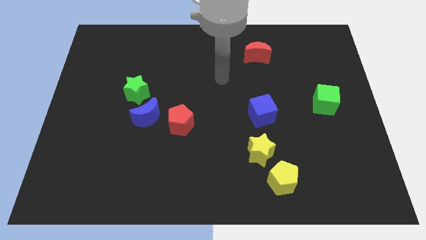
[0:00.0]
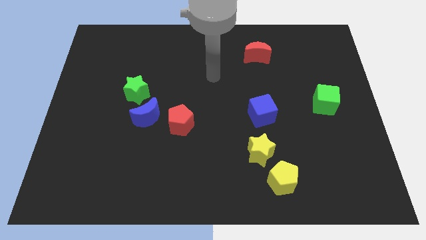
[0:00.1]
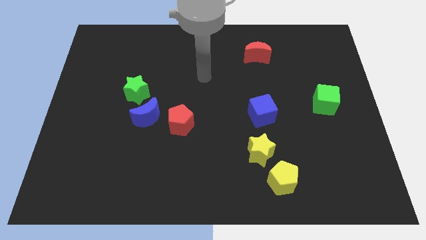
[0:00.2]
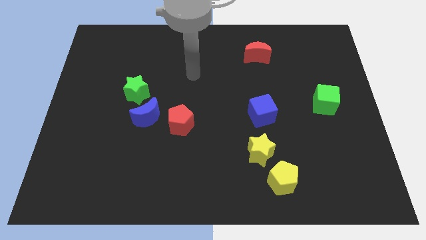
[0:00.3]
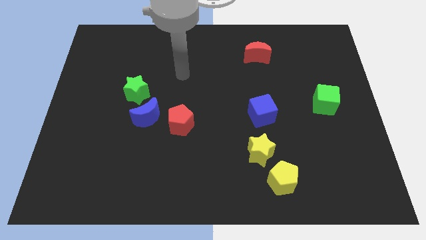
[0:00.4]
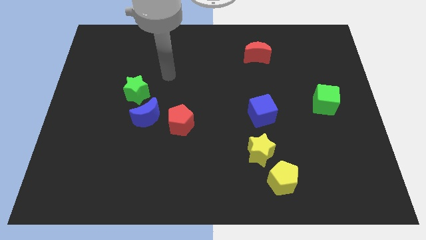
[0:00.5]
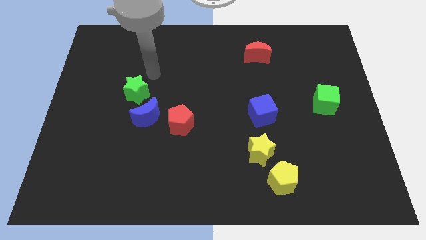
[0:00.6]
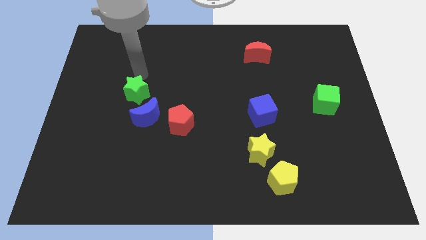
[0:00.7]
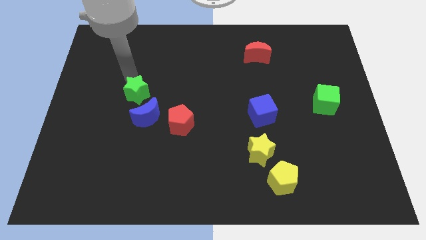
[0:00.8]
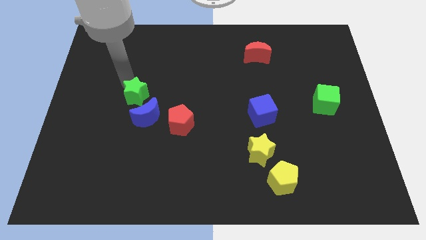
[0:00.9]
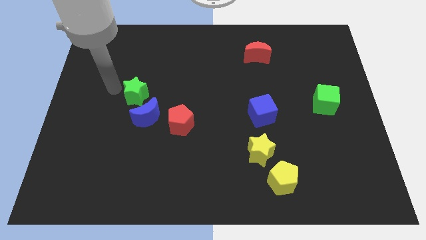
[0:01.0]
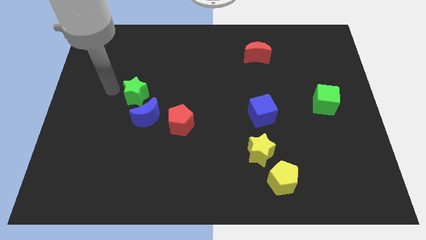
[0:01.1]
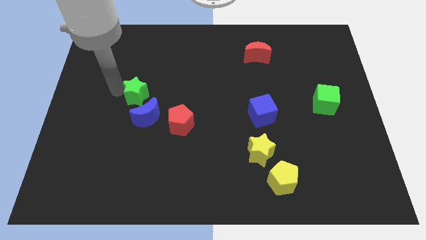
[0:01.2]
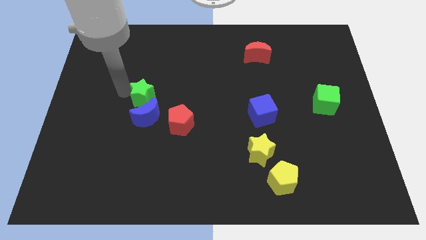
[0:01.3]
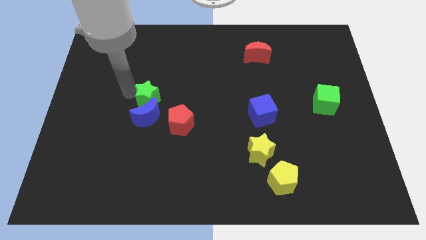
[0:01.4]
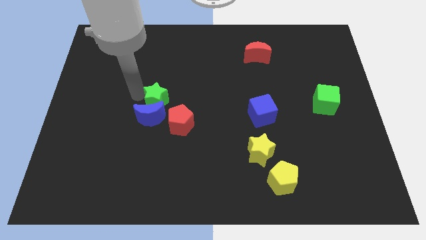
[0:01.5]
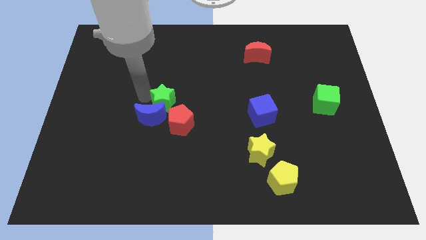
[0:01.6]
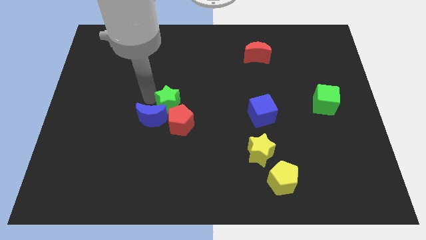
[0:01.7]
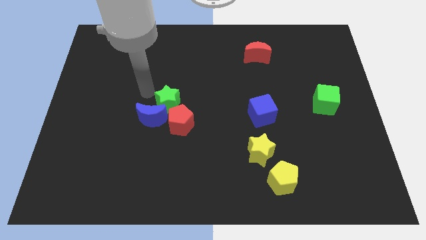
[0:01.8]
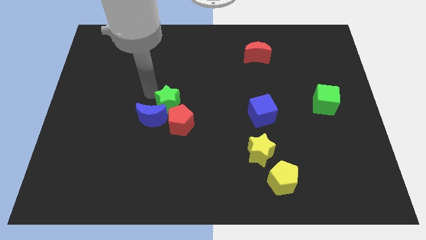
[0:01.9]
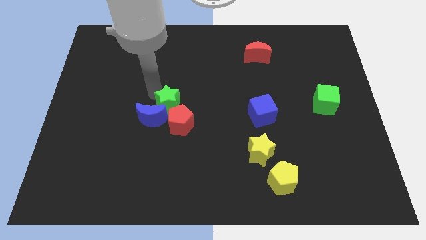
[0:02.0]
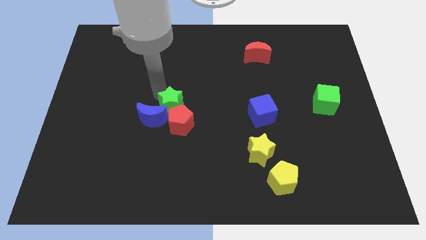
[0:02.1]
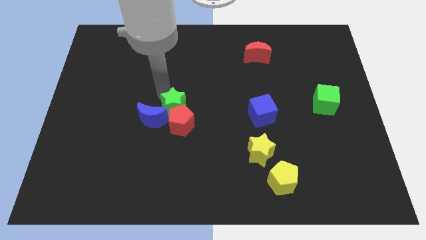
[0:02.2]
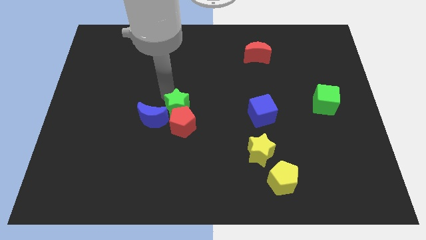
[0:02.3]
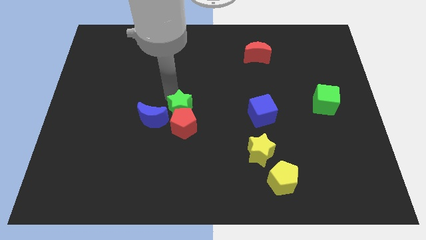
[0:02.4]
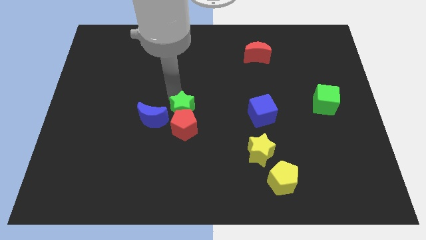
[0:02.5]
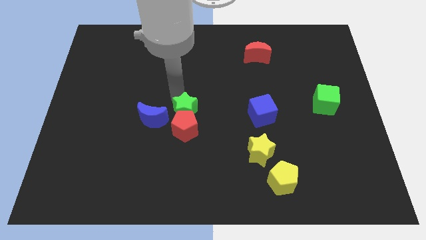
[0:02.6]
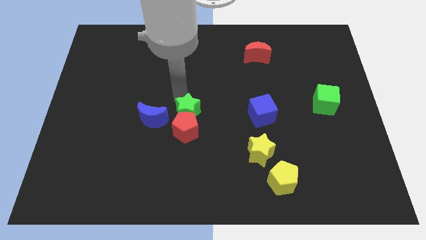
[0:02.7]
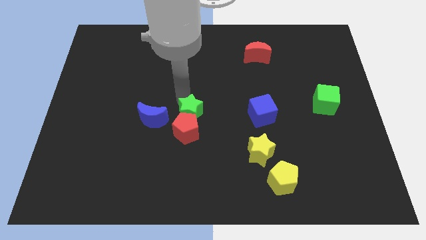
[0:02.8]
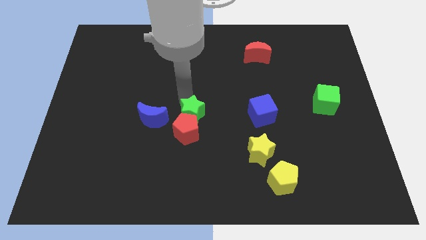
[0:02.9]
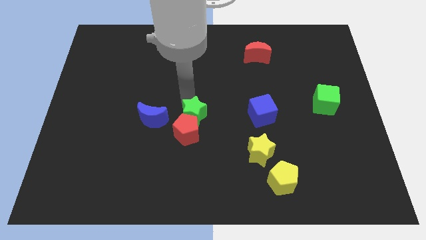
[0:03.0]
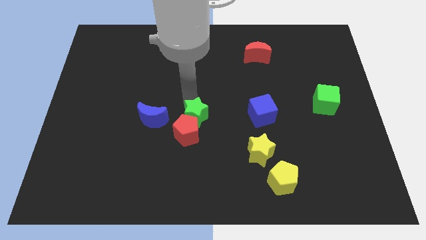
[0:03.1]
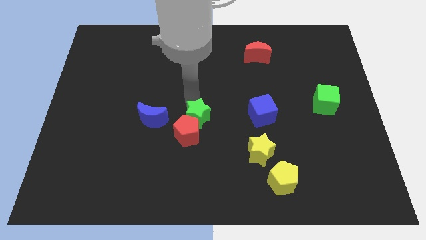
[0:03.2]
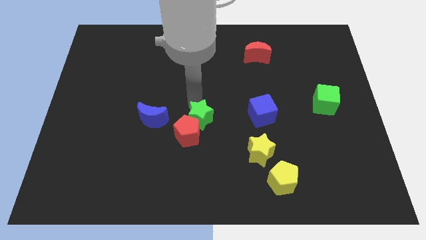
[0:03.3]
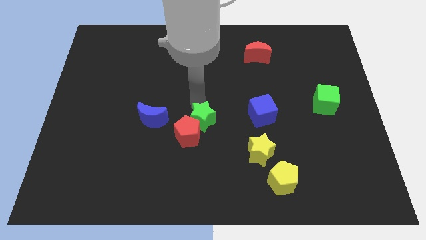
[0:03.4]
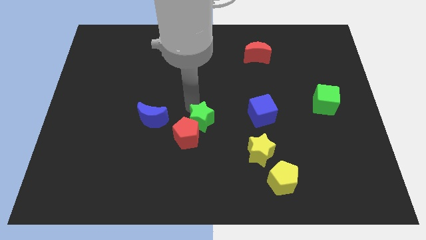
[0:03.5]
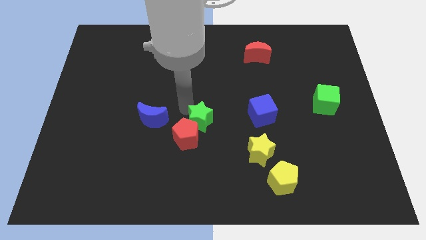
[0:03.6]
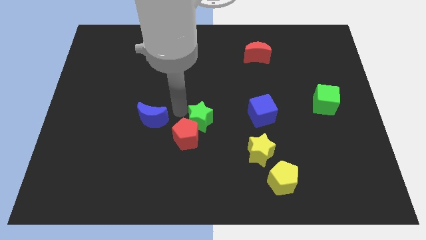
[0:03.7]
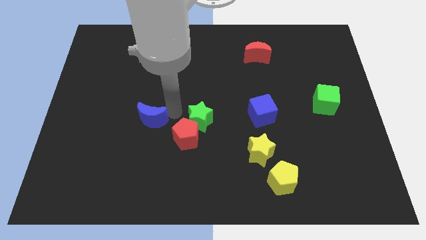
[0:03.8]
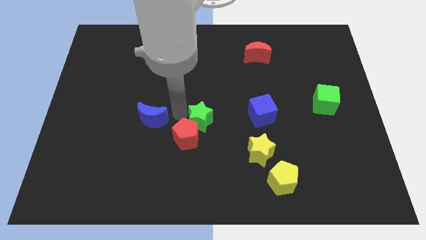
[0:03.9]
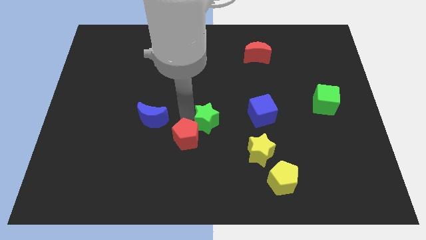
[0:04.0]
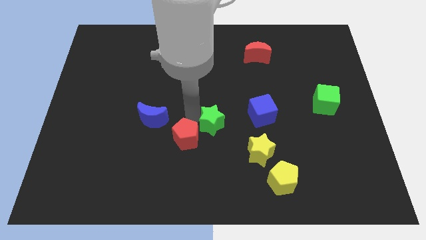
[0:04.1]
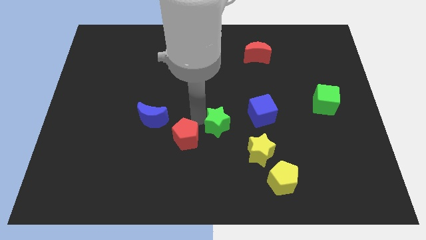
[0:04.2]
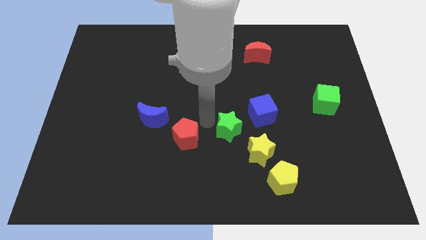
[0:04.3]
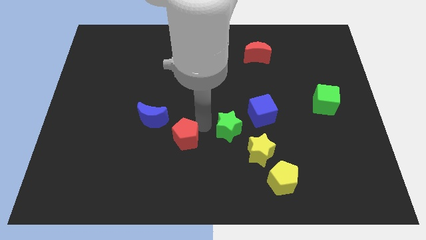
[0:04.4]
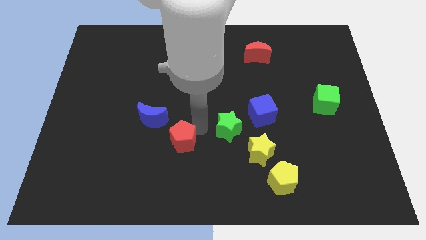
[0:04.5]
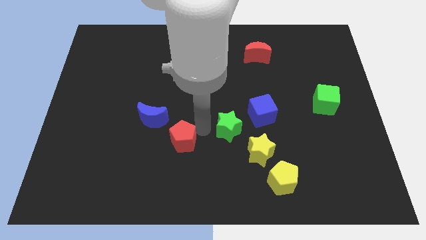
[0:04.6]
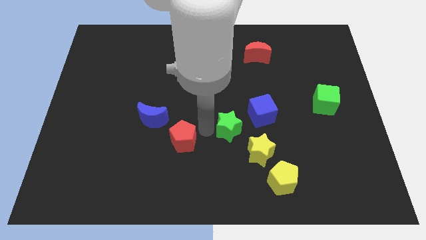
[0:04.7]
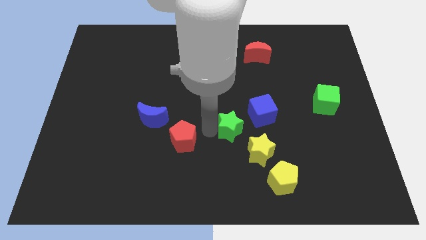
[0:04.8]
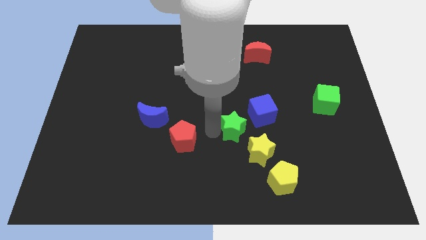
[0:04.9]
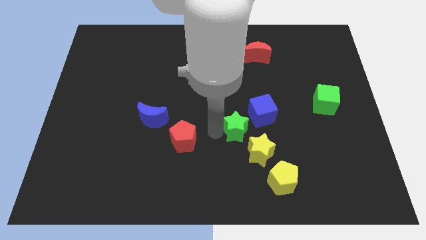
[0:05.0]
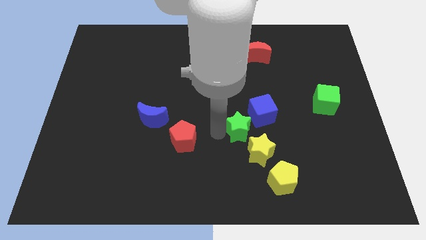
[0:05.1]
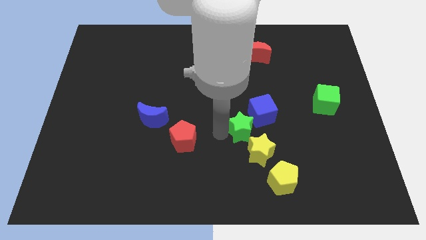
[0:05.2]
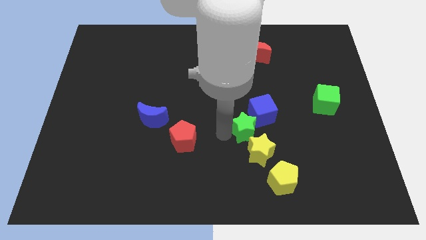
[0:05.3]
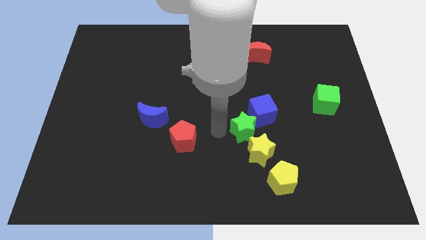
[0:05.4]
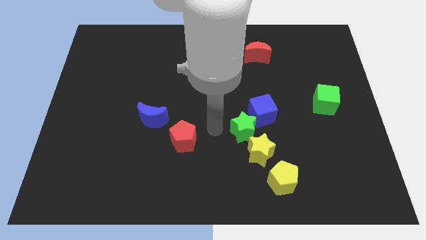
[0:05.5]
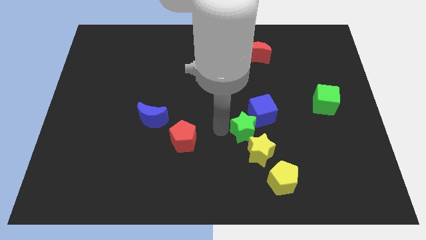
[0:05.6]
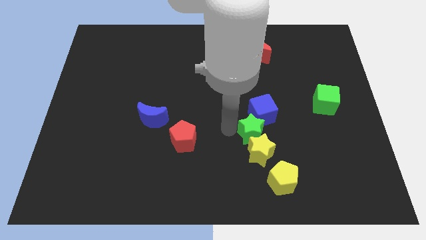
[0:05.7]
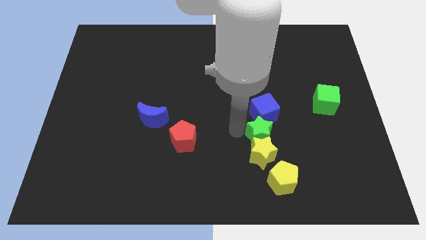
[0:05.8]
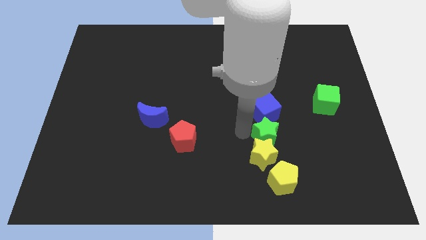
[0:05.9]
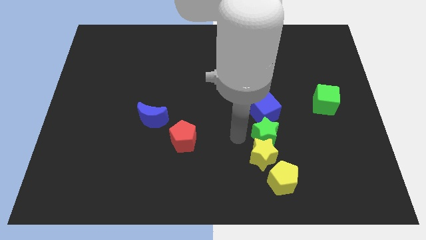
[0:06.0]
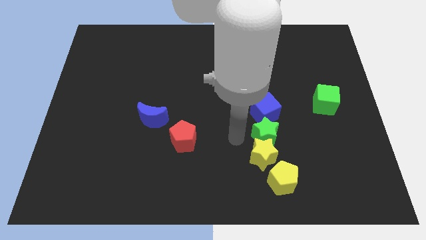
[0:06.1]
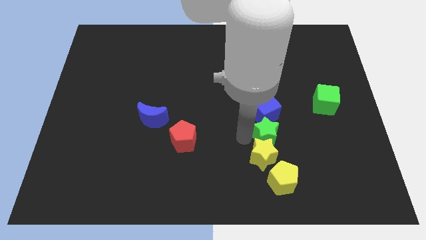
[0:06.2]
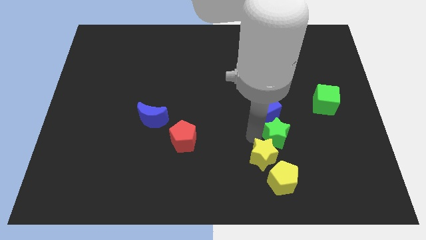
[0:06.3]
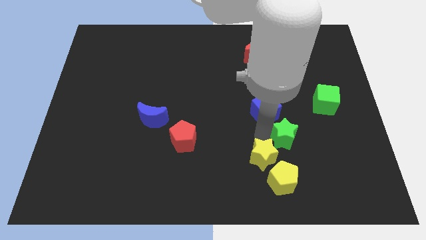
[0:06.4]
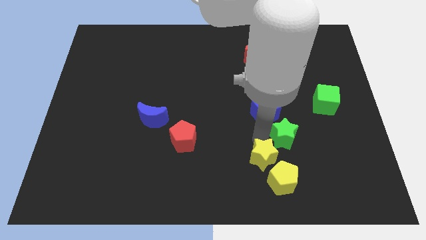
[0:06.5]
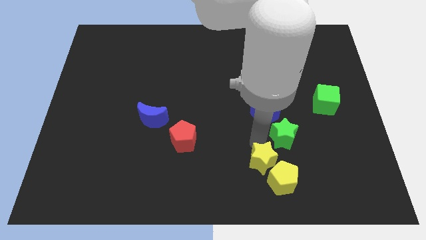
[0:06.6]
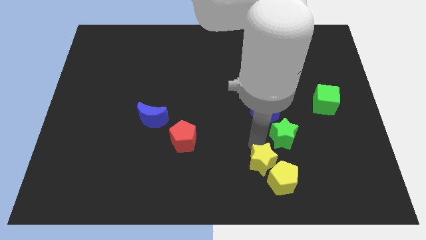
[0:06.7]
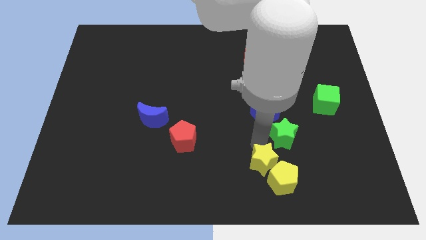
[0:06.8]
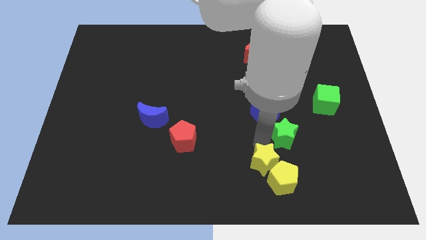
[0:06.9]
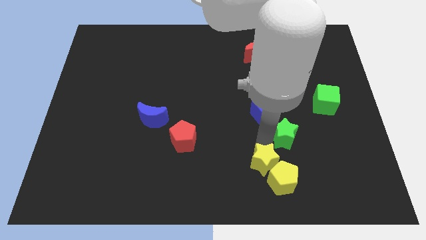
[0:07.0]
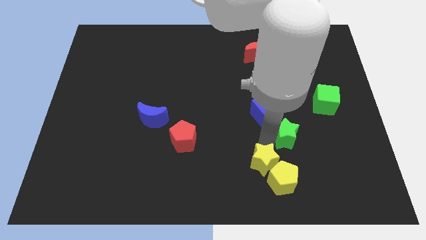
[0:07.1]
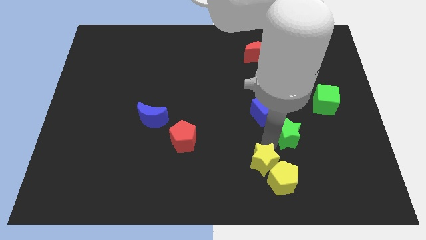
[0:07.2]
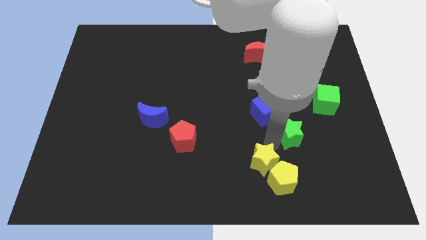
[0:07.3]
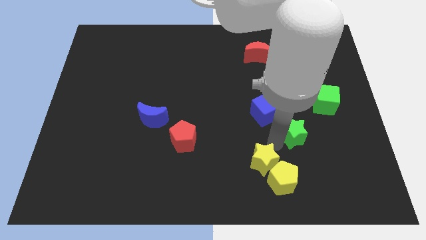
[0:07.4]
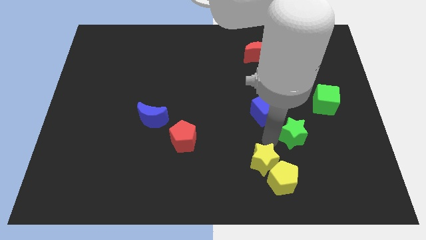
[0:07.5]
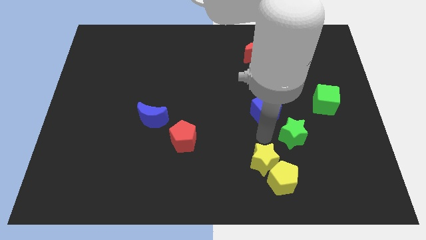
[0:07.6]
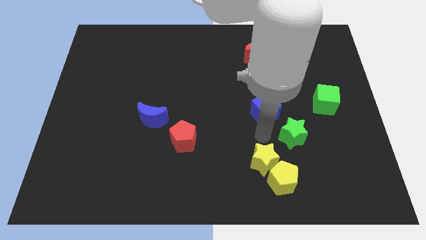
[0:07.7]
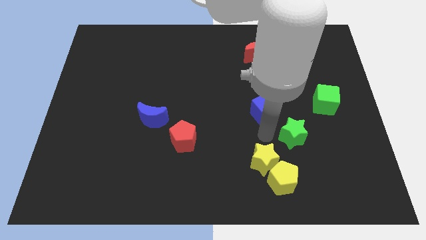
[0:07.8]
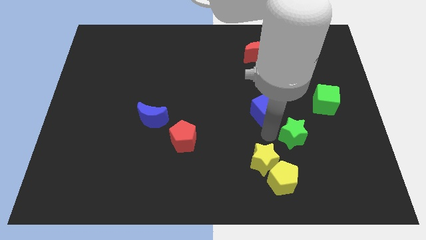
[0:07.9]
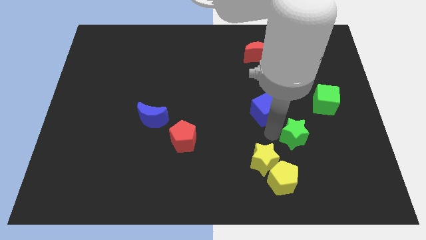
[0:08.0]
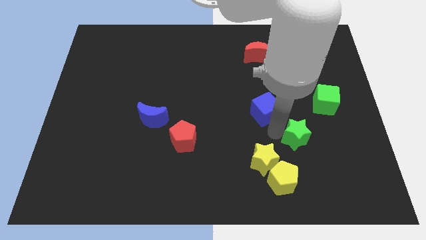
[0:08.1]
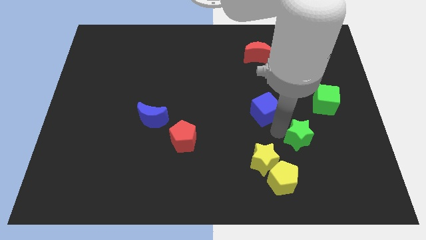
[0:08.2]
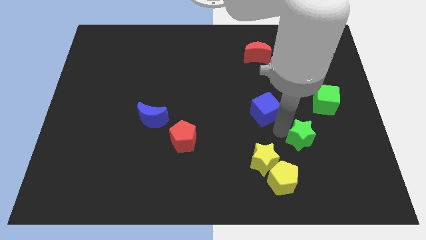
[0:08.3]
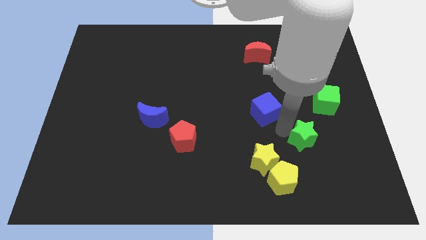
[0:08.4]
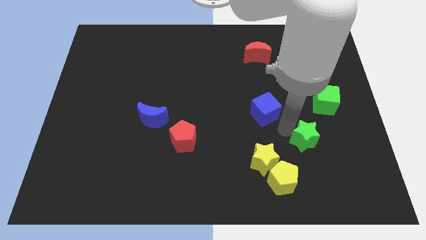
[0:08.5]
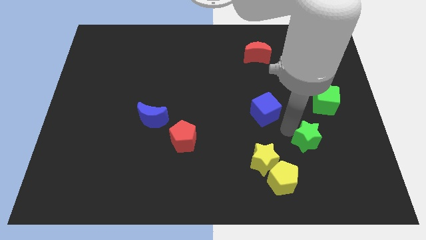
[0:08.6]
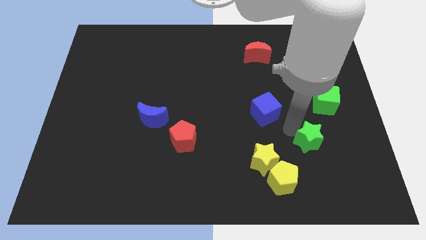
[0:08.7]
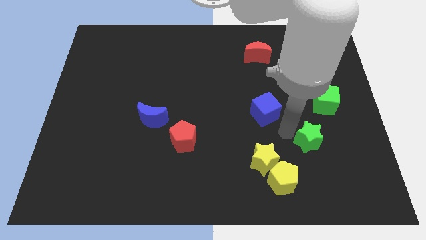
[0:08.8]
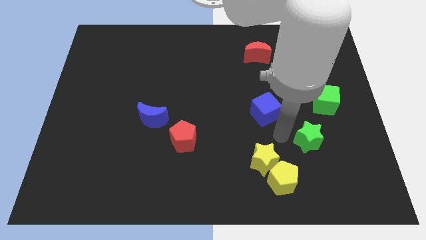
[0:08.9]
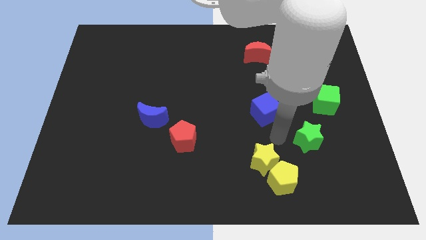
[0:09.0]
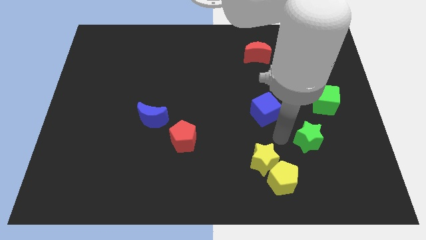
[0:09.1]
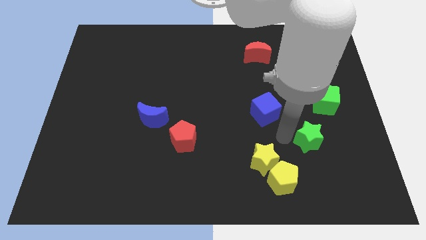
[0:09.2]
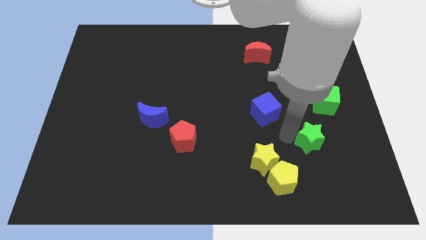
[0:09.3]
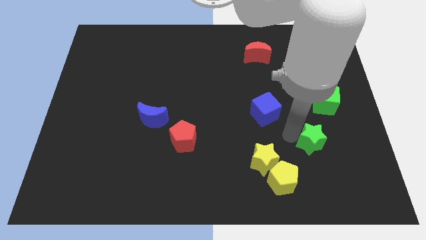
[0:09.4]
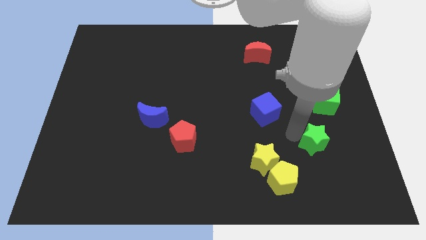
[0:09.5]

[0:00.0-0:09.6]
slide the green star below the green cube
